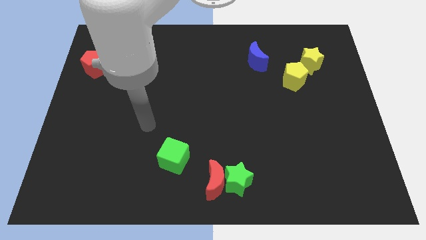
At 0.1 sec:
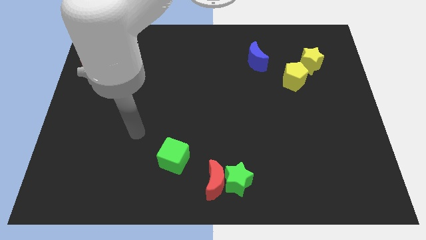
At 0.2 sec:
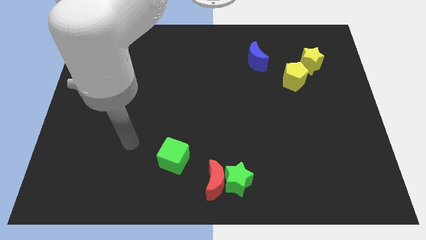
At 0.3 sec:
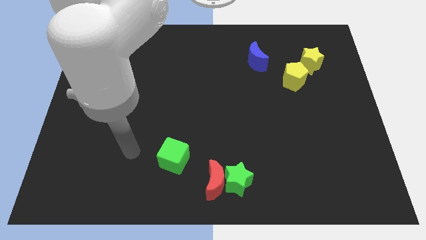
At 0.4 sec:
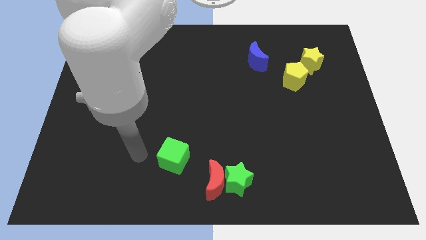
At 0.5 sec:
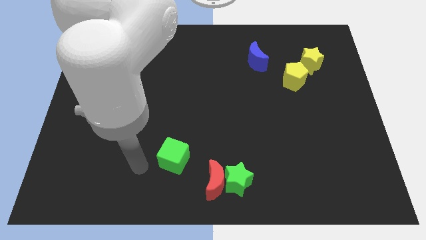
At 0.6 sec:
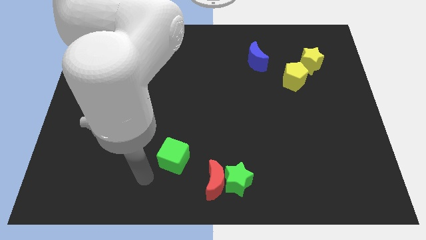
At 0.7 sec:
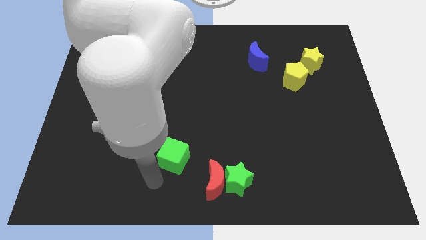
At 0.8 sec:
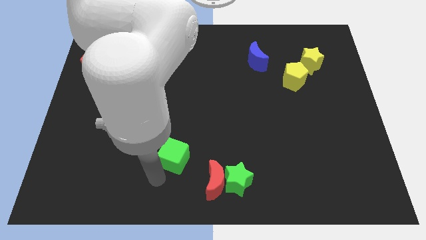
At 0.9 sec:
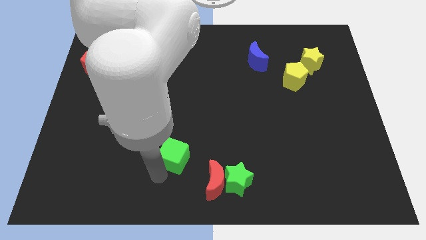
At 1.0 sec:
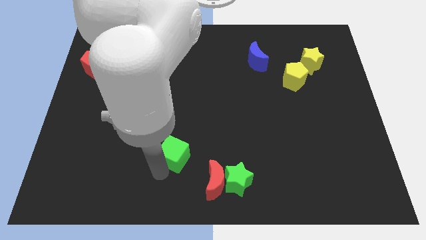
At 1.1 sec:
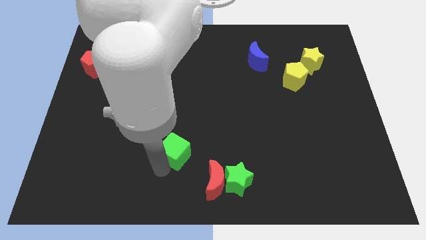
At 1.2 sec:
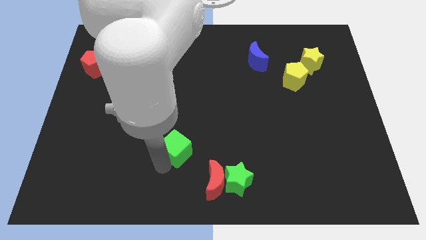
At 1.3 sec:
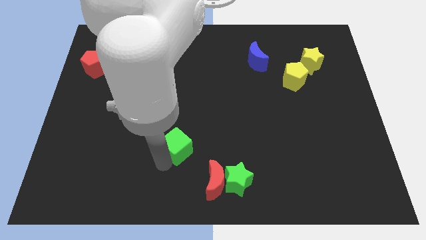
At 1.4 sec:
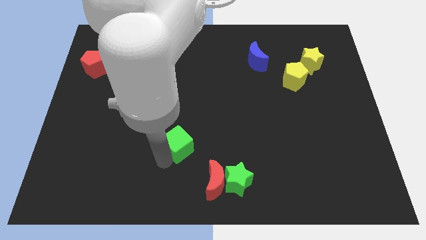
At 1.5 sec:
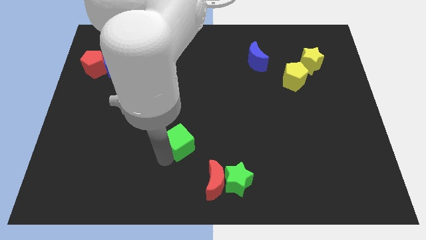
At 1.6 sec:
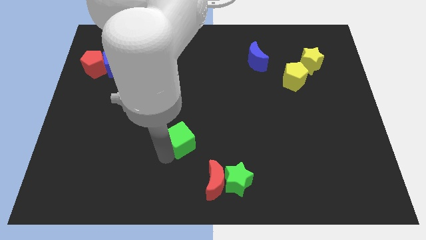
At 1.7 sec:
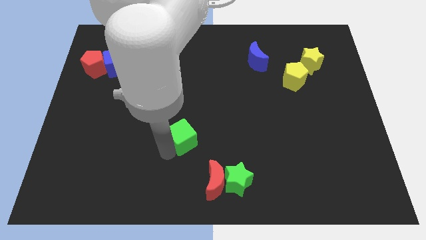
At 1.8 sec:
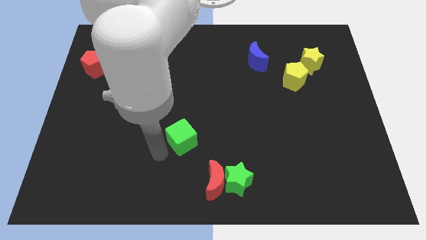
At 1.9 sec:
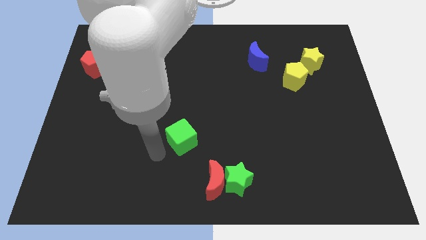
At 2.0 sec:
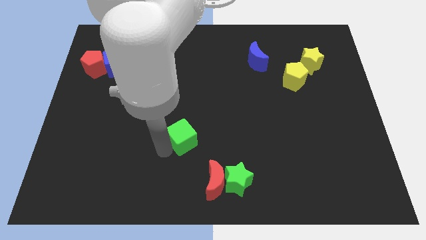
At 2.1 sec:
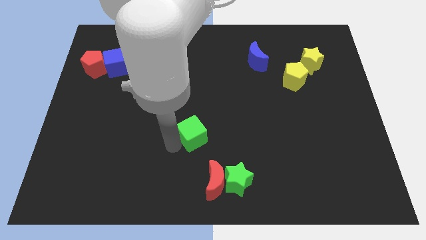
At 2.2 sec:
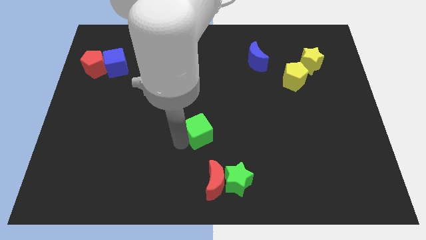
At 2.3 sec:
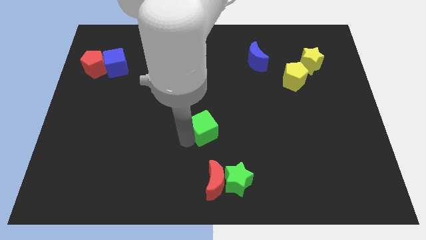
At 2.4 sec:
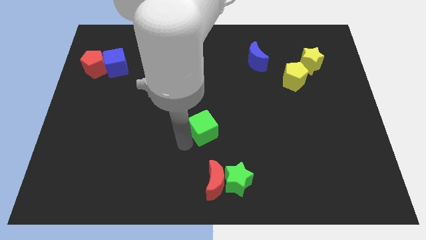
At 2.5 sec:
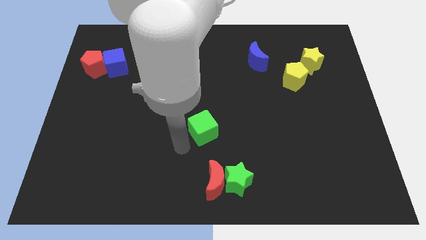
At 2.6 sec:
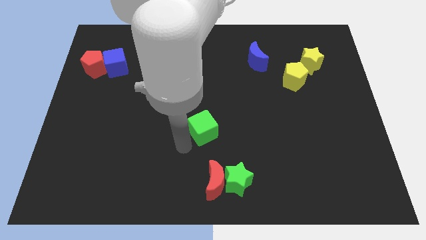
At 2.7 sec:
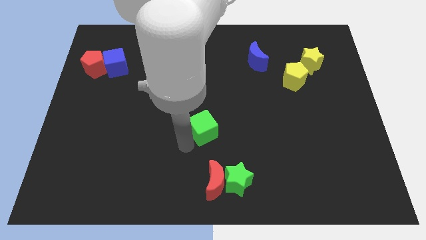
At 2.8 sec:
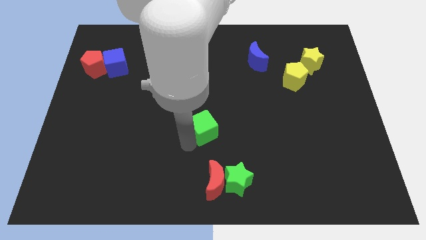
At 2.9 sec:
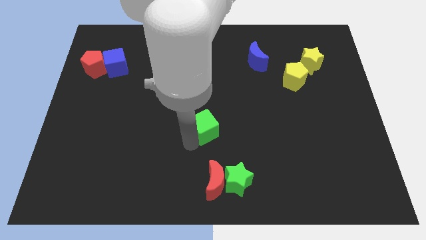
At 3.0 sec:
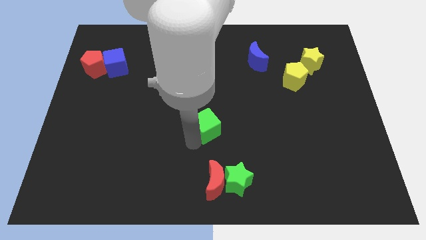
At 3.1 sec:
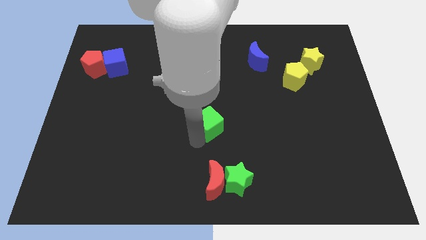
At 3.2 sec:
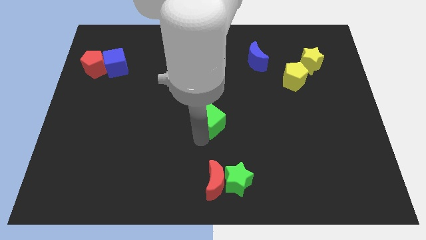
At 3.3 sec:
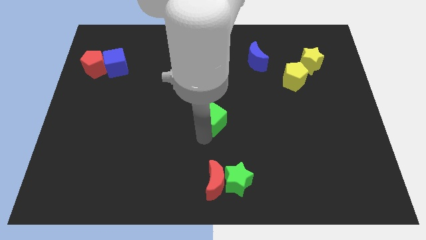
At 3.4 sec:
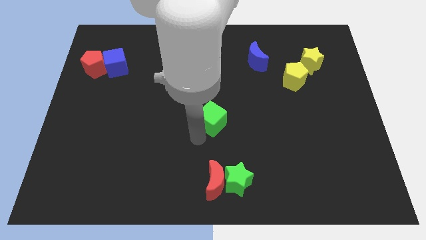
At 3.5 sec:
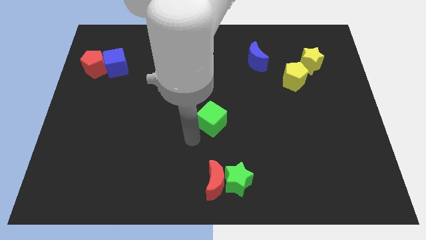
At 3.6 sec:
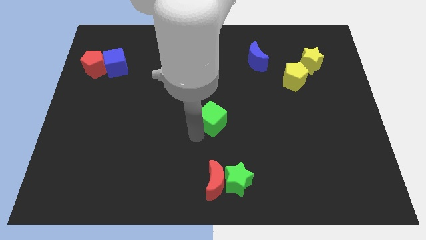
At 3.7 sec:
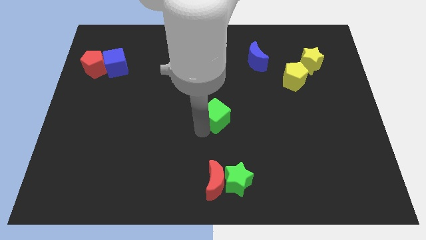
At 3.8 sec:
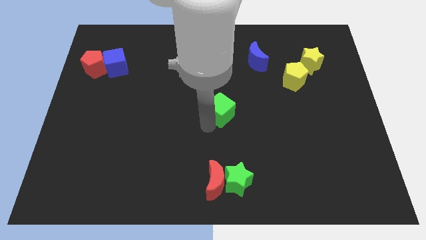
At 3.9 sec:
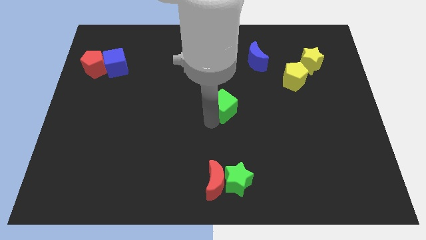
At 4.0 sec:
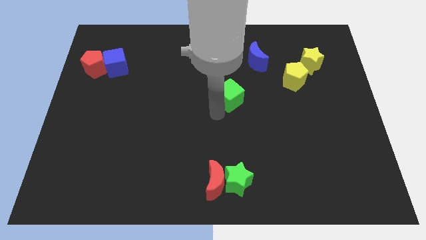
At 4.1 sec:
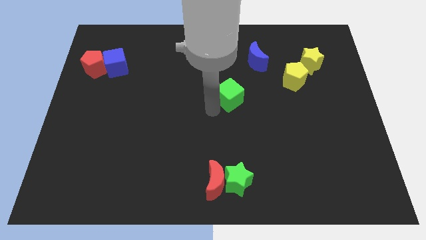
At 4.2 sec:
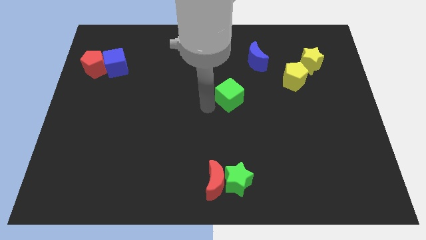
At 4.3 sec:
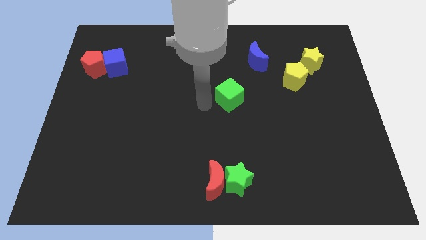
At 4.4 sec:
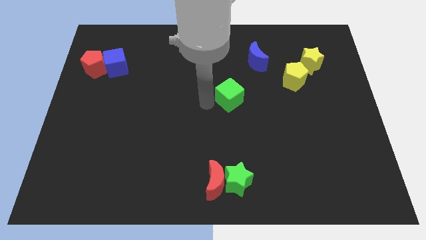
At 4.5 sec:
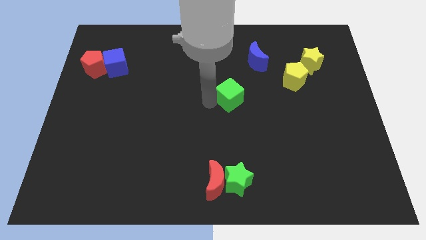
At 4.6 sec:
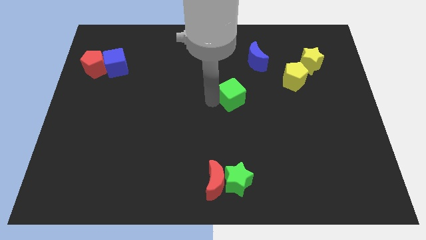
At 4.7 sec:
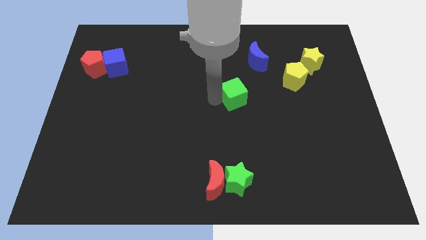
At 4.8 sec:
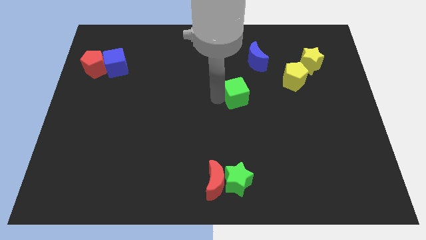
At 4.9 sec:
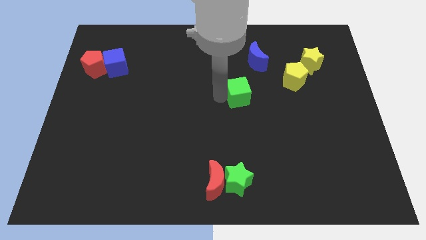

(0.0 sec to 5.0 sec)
slide the green cube to the bottom side of the blue moon

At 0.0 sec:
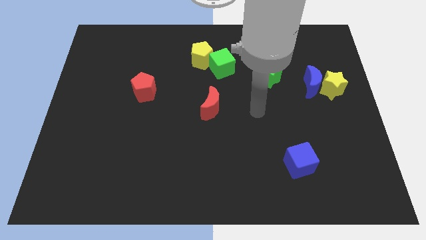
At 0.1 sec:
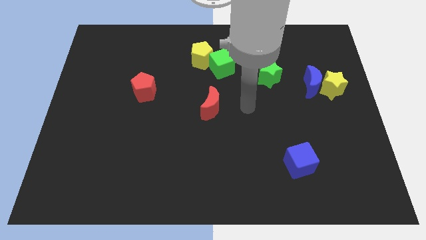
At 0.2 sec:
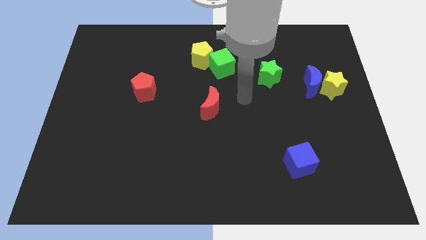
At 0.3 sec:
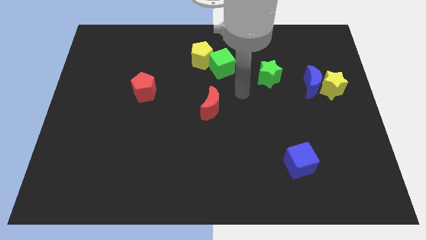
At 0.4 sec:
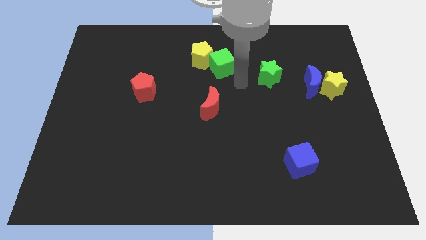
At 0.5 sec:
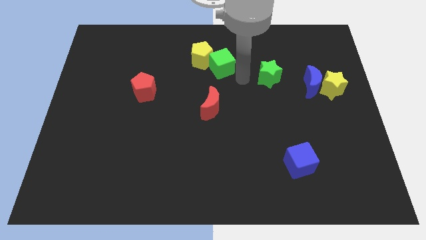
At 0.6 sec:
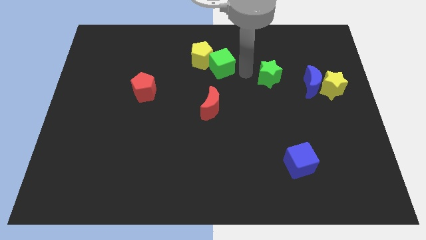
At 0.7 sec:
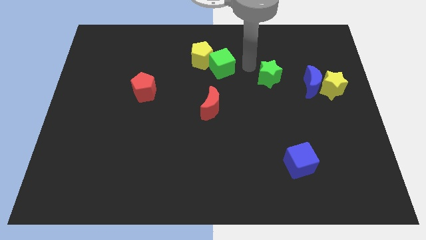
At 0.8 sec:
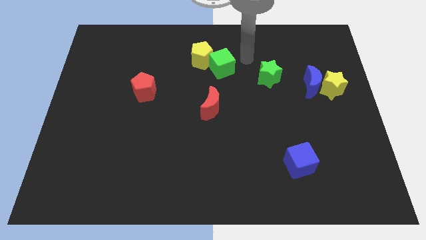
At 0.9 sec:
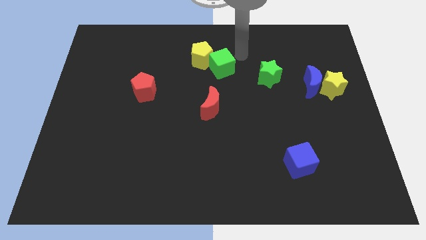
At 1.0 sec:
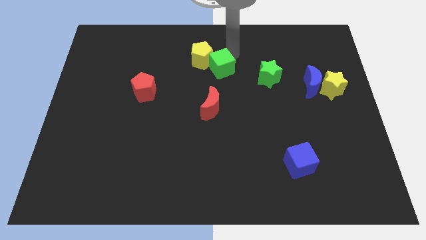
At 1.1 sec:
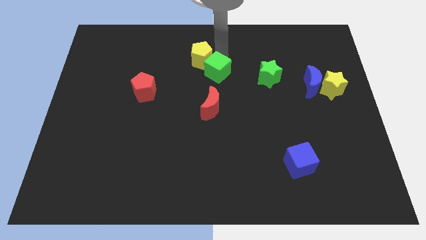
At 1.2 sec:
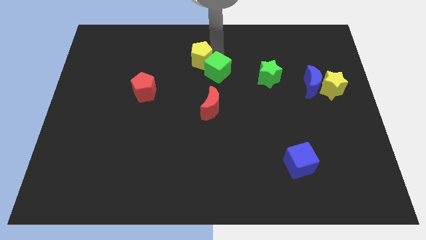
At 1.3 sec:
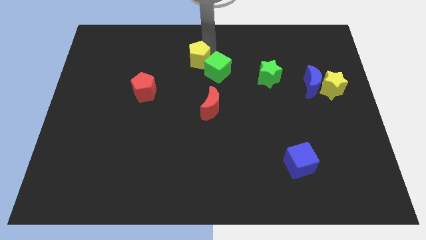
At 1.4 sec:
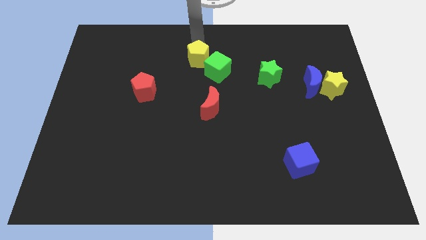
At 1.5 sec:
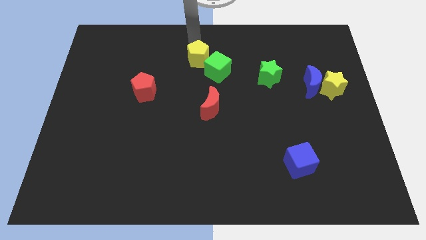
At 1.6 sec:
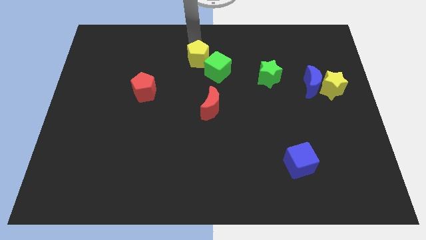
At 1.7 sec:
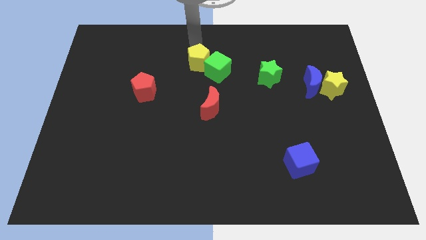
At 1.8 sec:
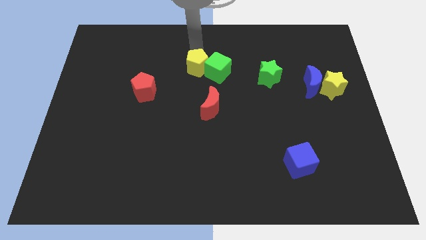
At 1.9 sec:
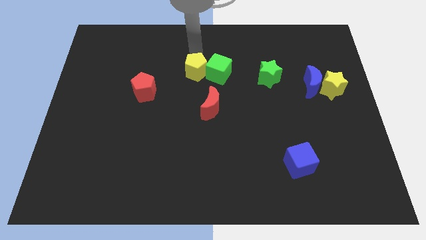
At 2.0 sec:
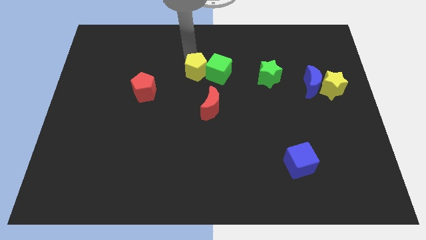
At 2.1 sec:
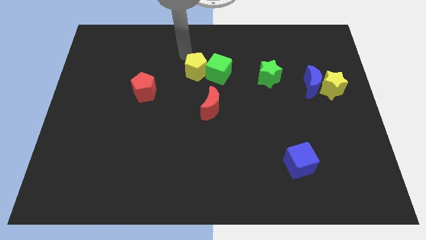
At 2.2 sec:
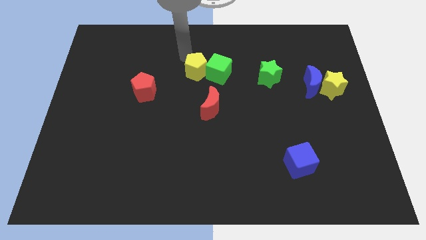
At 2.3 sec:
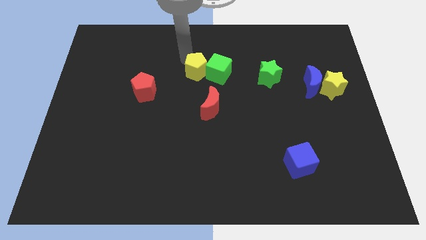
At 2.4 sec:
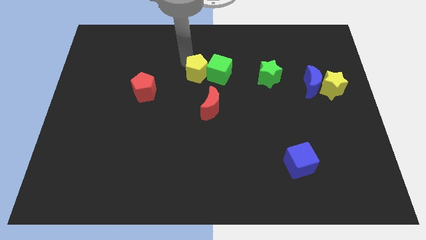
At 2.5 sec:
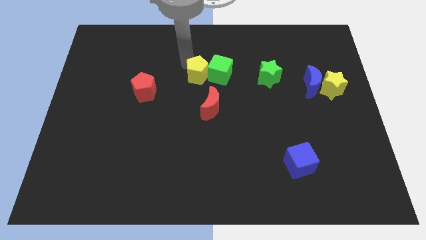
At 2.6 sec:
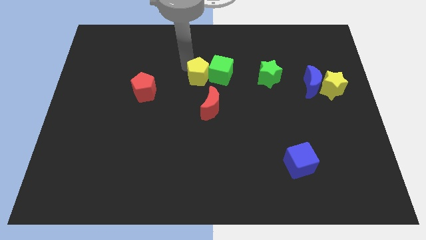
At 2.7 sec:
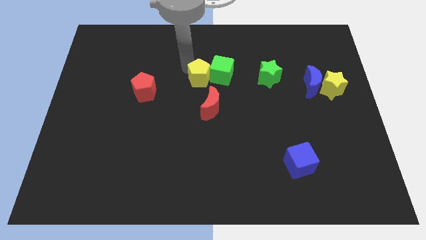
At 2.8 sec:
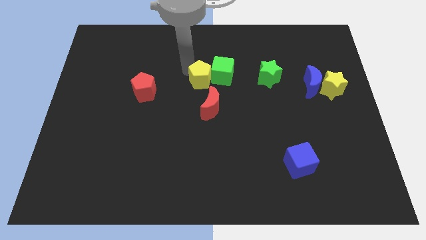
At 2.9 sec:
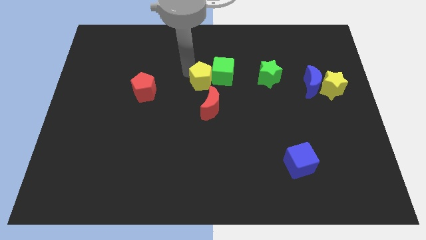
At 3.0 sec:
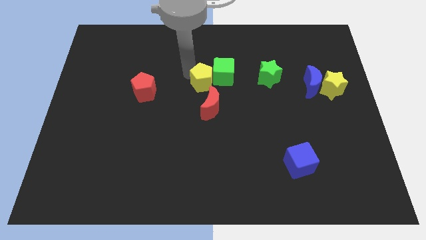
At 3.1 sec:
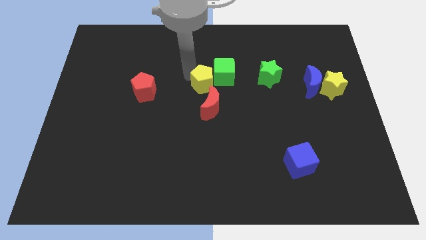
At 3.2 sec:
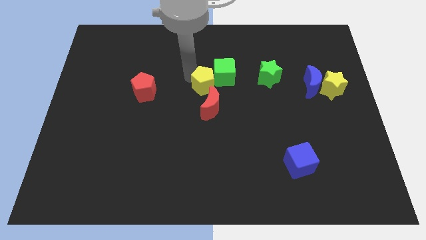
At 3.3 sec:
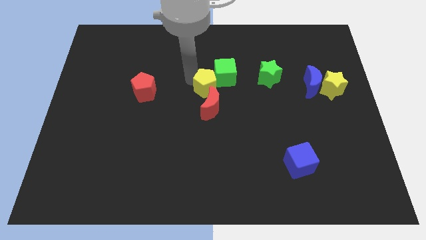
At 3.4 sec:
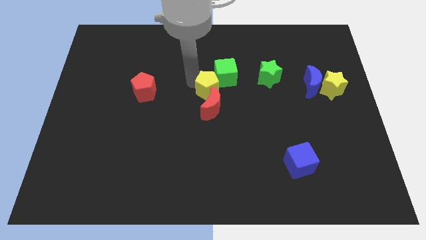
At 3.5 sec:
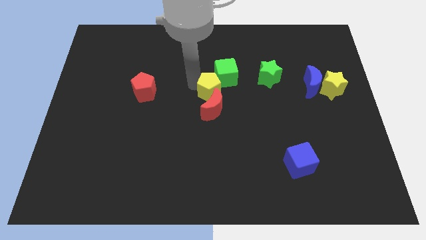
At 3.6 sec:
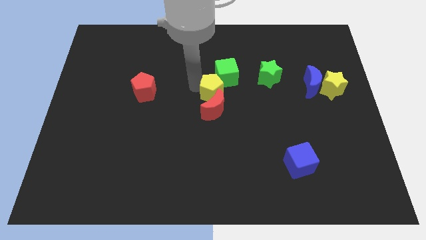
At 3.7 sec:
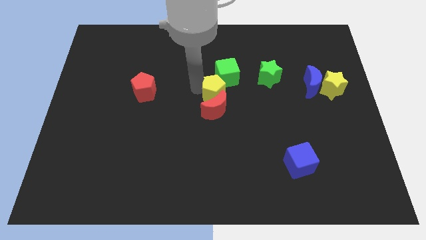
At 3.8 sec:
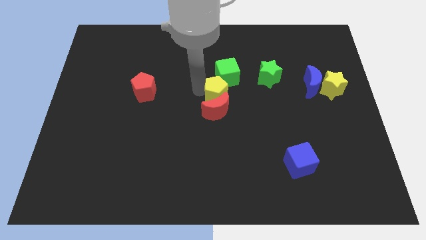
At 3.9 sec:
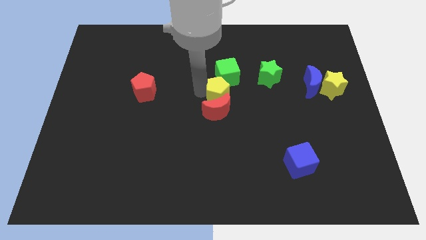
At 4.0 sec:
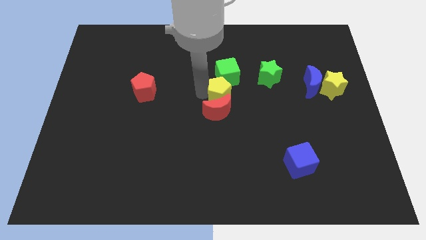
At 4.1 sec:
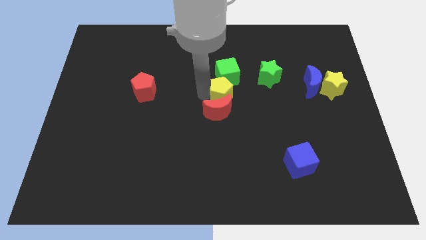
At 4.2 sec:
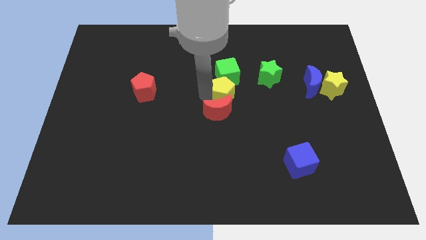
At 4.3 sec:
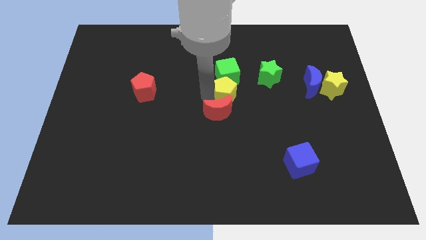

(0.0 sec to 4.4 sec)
put the yellow pentagon to the bottom right of the green cube
